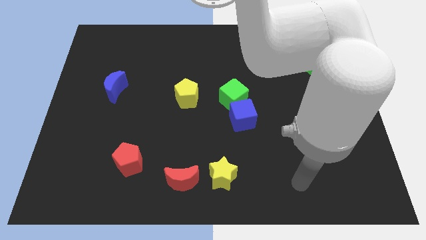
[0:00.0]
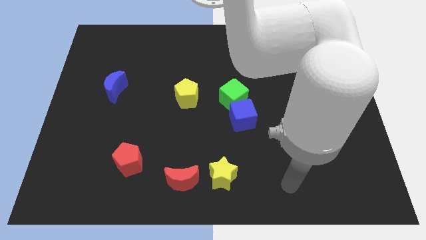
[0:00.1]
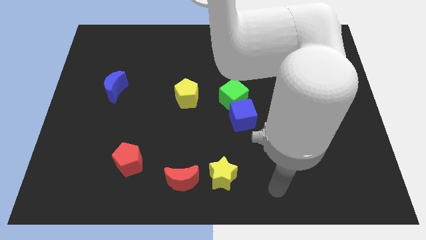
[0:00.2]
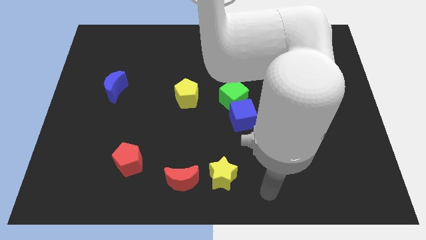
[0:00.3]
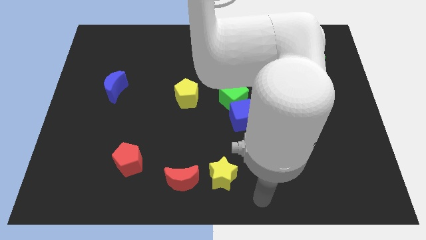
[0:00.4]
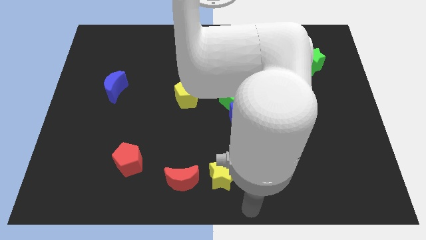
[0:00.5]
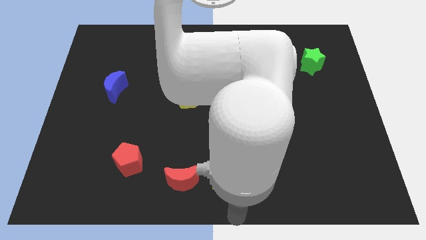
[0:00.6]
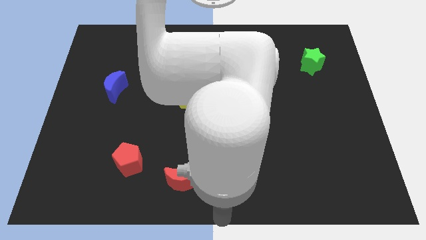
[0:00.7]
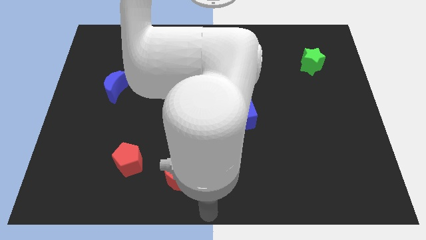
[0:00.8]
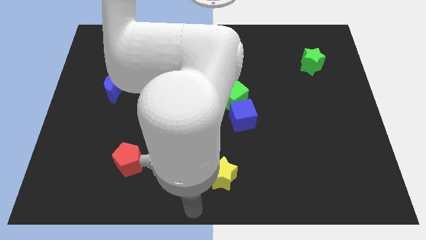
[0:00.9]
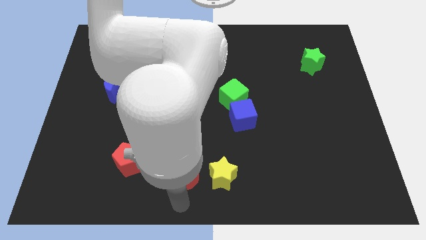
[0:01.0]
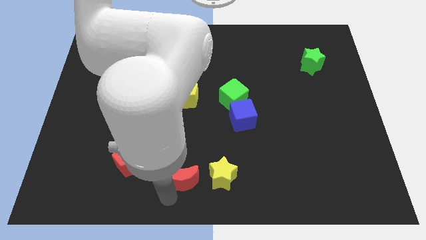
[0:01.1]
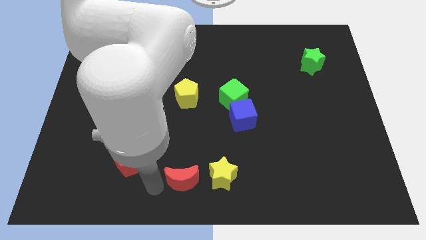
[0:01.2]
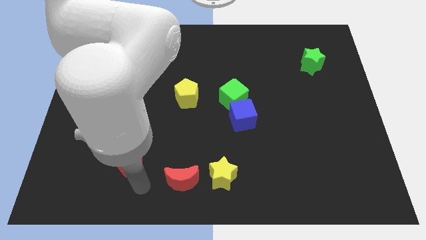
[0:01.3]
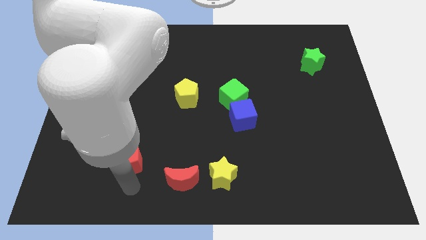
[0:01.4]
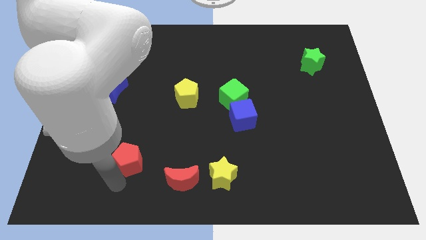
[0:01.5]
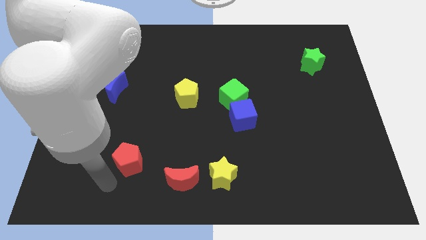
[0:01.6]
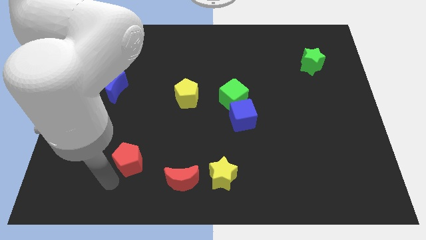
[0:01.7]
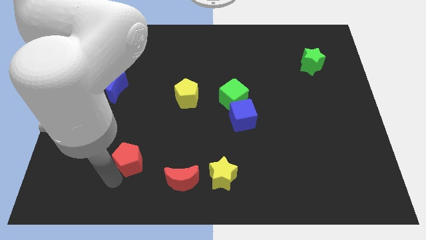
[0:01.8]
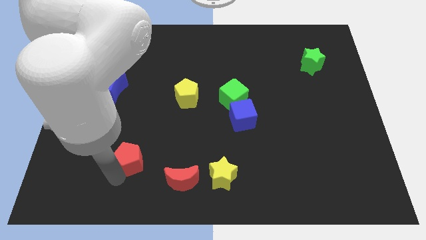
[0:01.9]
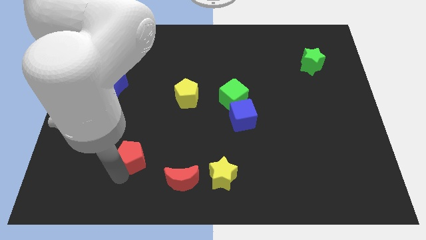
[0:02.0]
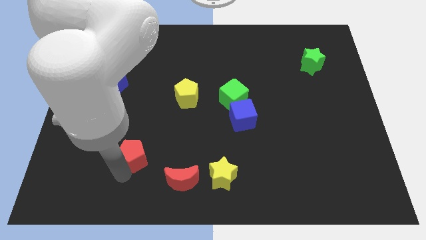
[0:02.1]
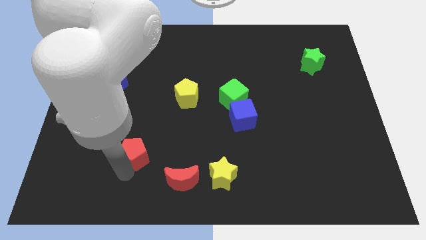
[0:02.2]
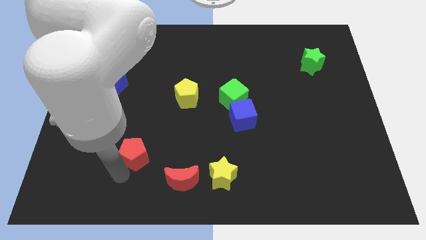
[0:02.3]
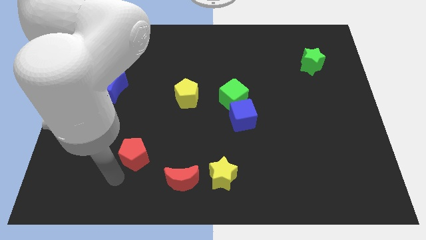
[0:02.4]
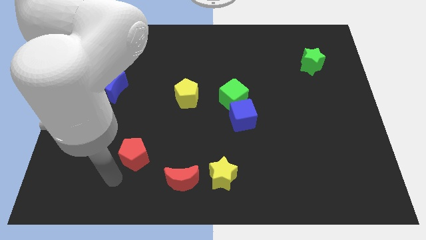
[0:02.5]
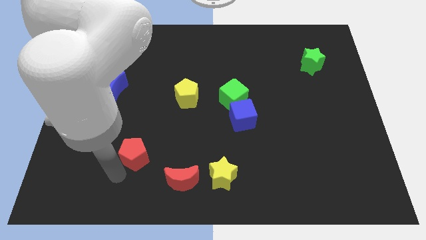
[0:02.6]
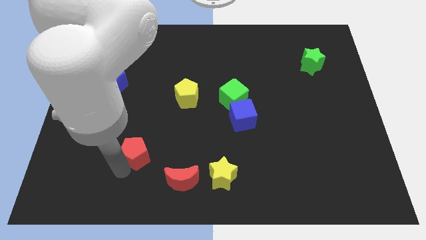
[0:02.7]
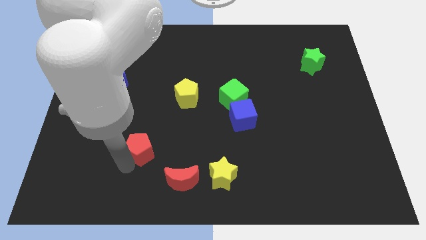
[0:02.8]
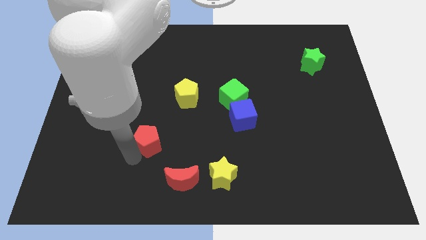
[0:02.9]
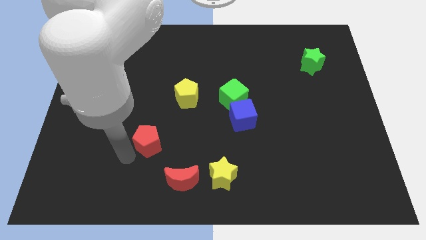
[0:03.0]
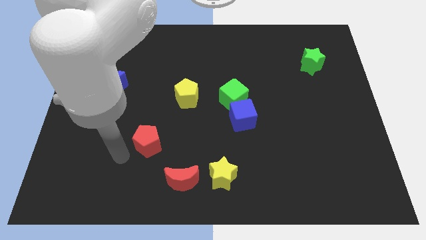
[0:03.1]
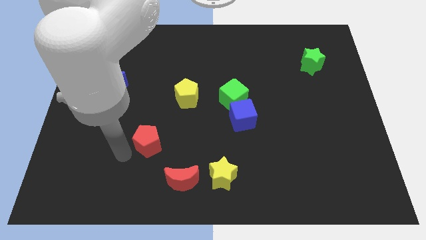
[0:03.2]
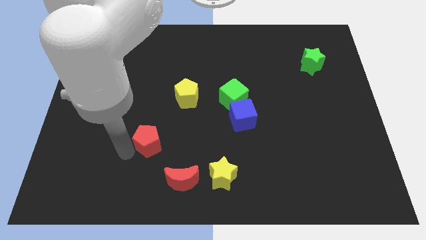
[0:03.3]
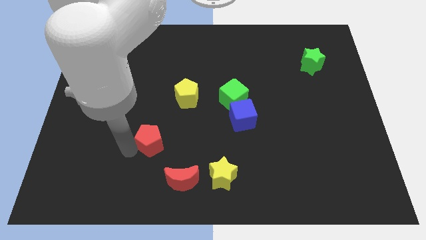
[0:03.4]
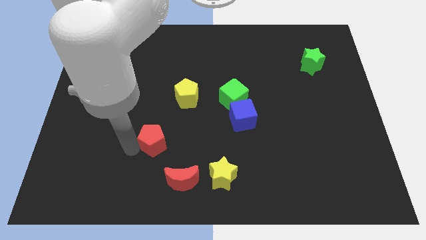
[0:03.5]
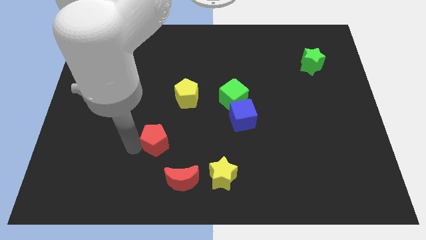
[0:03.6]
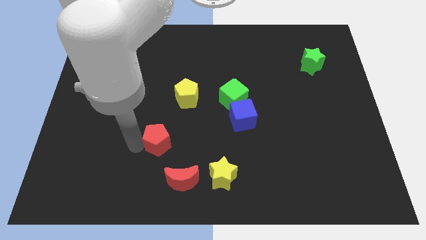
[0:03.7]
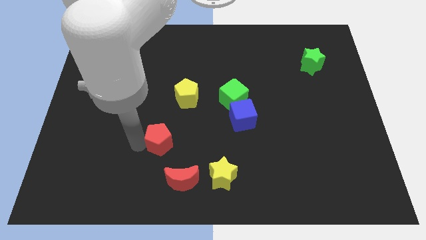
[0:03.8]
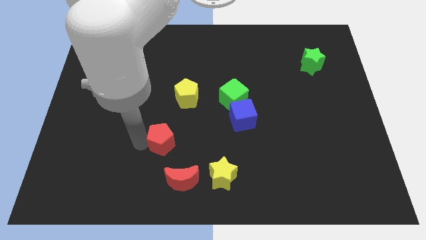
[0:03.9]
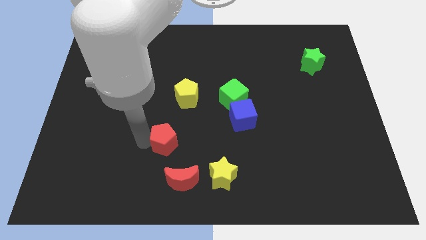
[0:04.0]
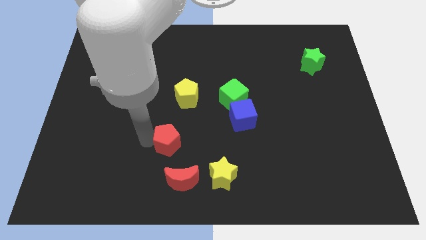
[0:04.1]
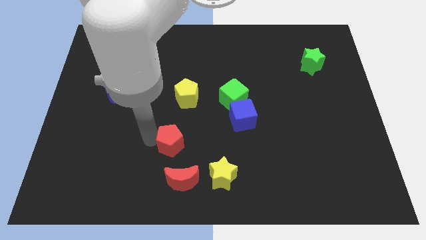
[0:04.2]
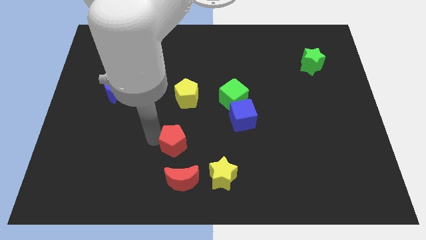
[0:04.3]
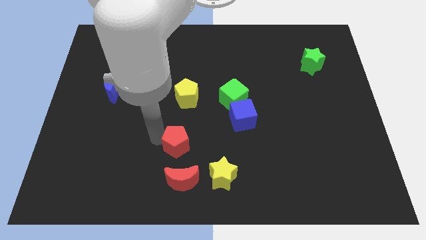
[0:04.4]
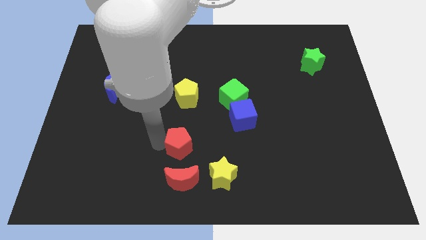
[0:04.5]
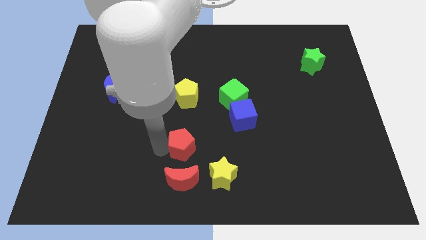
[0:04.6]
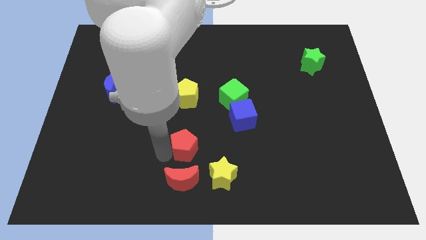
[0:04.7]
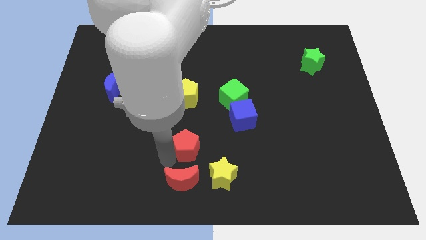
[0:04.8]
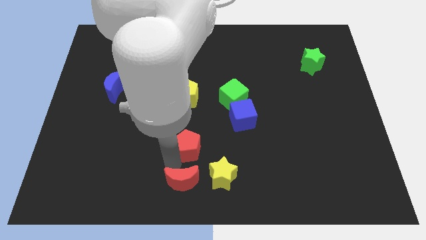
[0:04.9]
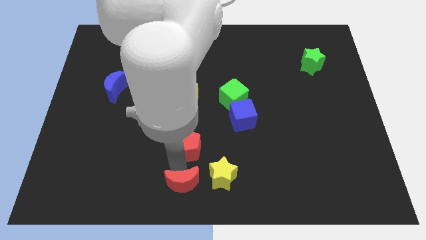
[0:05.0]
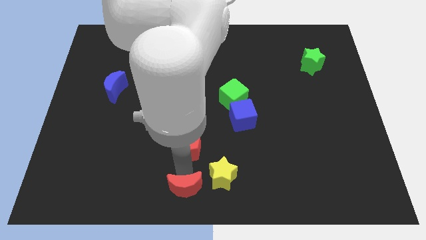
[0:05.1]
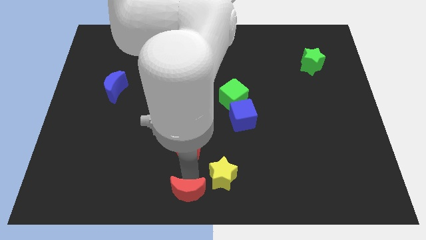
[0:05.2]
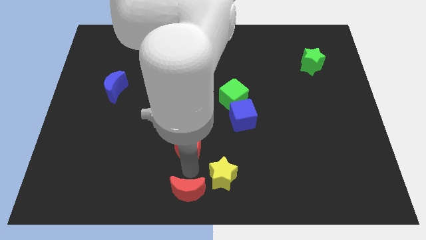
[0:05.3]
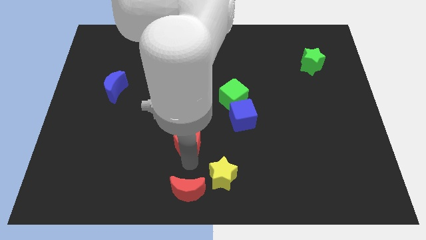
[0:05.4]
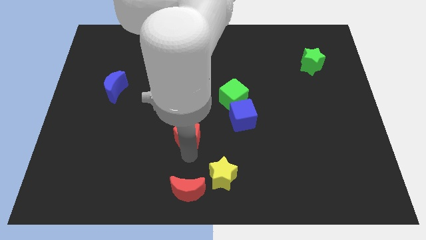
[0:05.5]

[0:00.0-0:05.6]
put the red pentagon to the middle

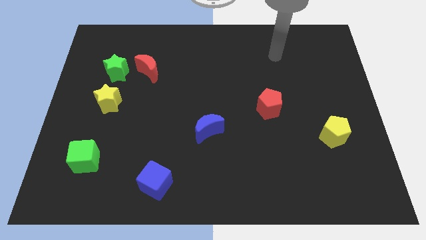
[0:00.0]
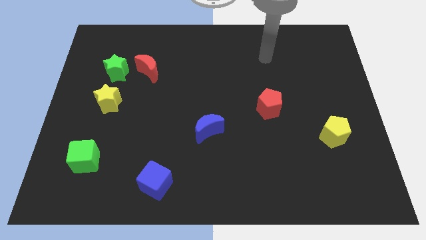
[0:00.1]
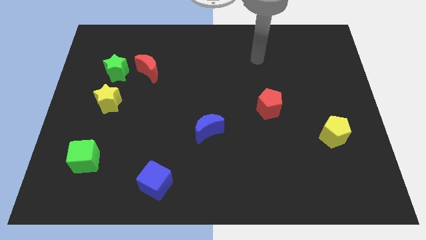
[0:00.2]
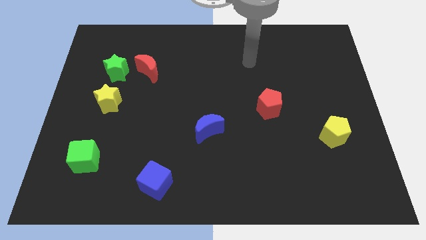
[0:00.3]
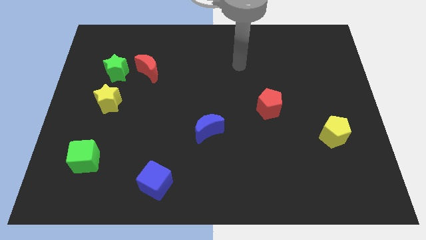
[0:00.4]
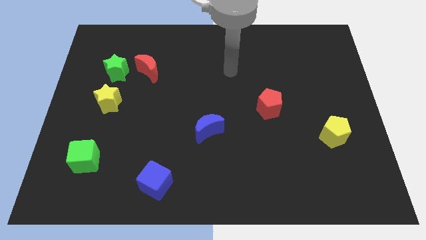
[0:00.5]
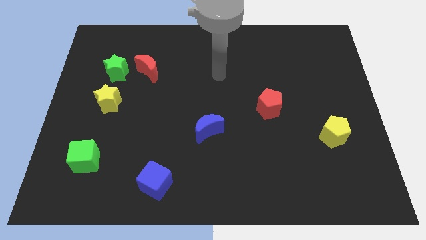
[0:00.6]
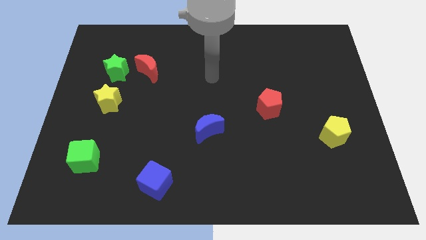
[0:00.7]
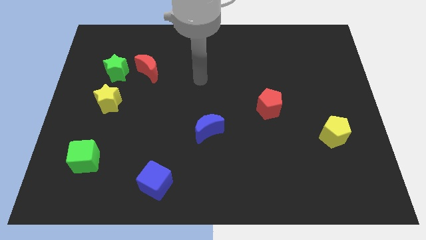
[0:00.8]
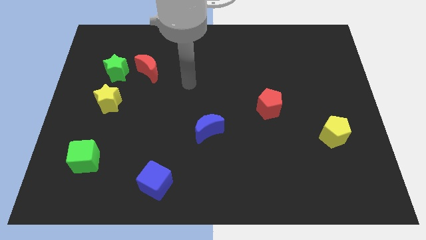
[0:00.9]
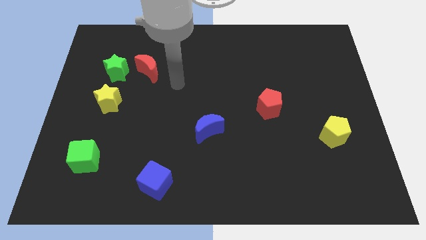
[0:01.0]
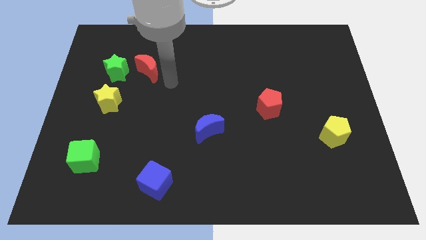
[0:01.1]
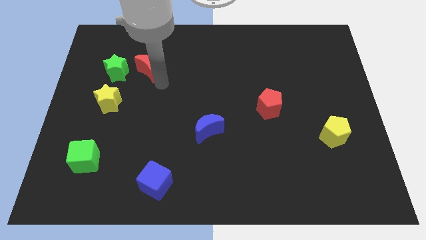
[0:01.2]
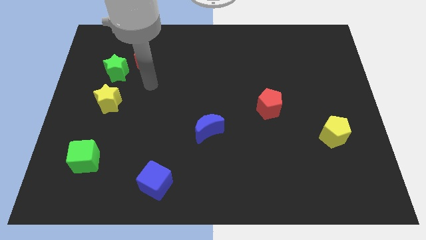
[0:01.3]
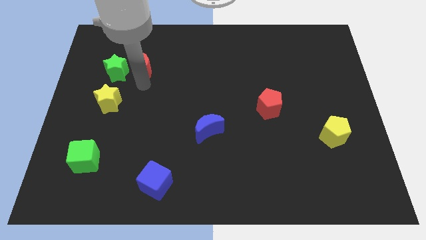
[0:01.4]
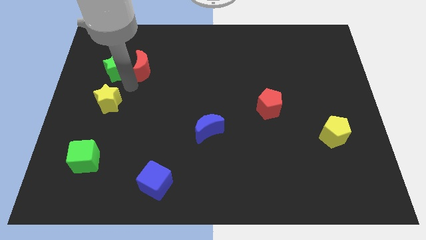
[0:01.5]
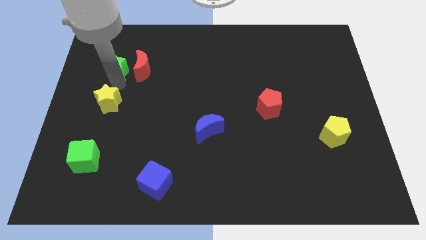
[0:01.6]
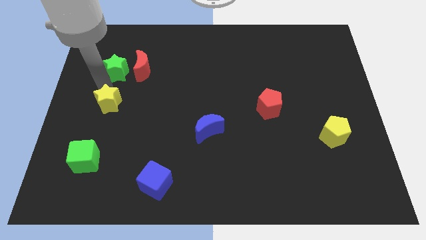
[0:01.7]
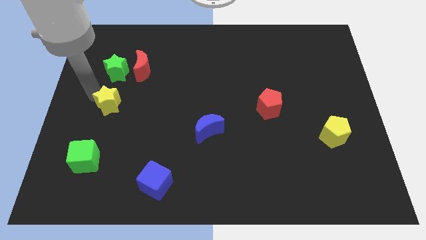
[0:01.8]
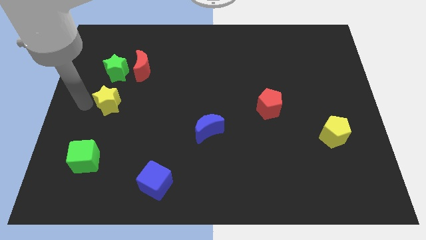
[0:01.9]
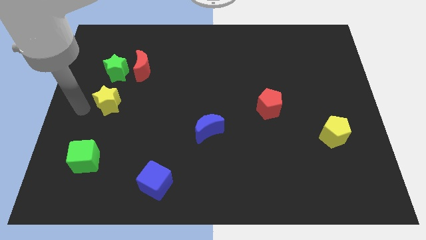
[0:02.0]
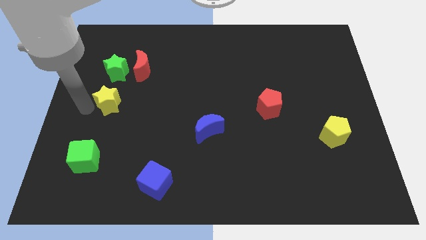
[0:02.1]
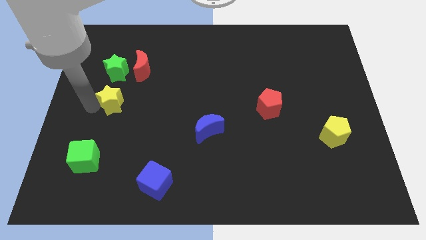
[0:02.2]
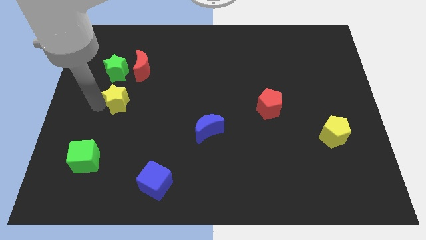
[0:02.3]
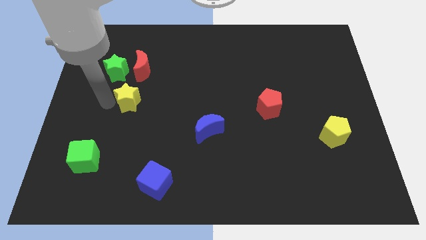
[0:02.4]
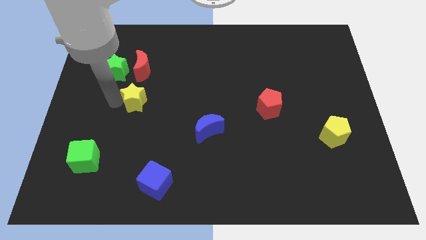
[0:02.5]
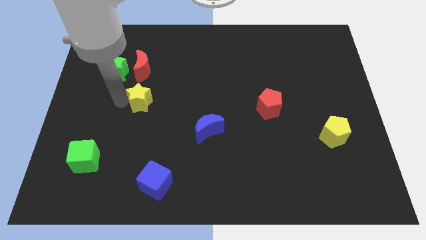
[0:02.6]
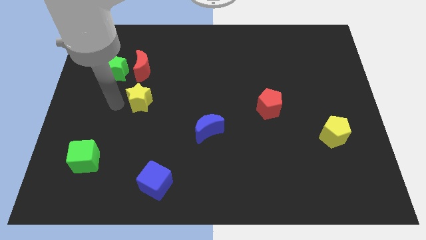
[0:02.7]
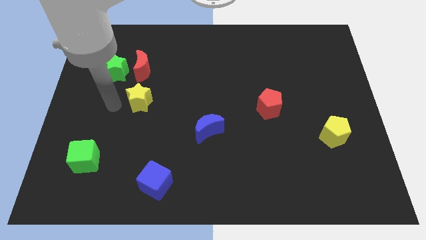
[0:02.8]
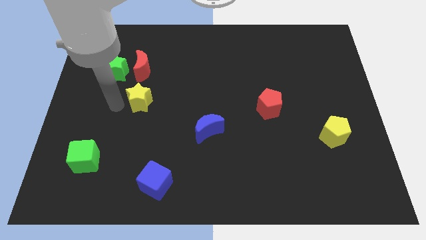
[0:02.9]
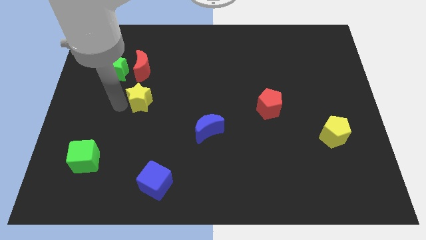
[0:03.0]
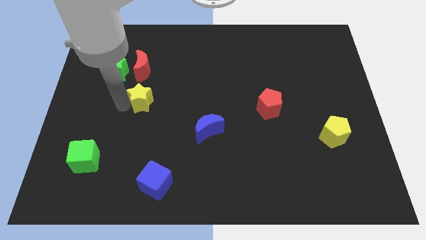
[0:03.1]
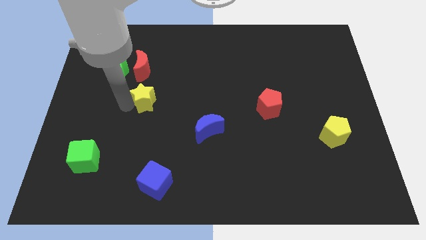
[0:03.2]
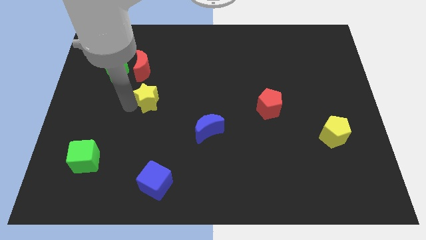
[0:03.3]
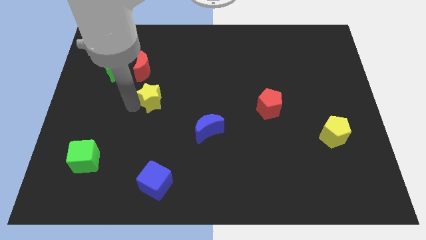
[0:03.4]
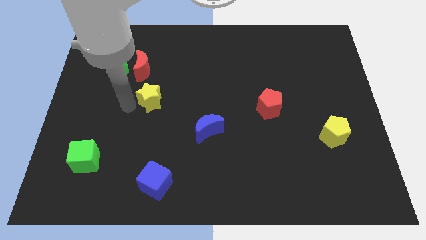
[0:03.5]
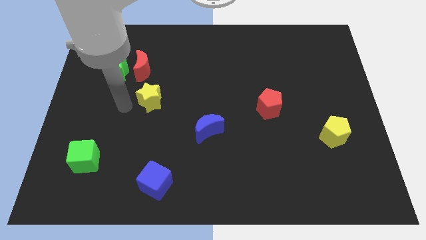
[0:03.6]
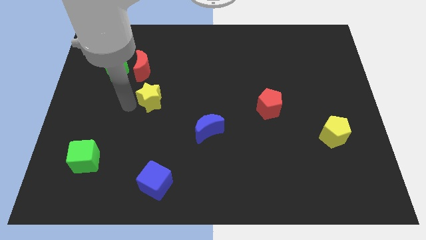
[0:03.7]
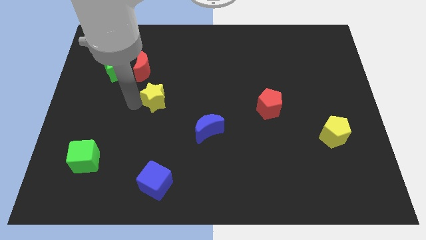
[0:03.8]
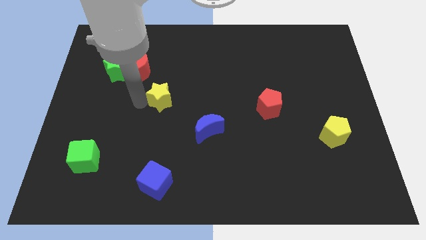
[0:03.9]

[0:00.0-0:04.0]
put the yellow star to the center of the board
